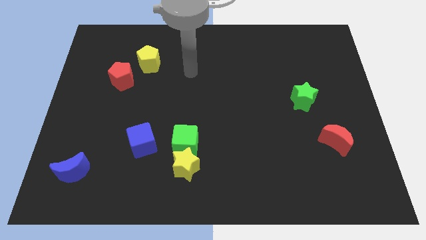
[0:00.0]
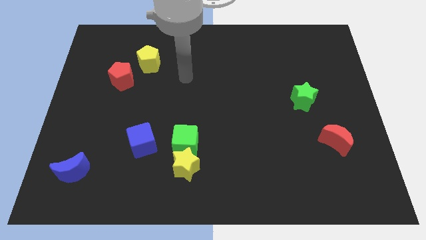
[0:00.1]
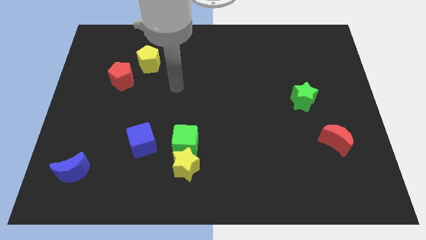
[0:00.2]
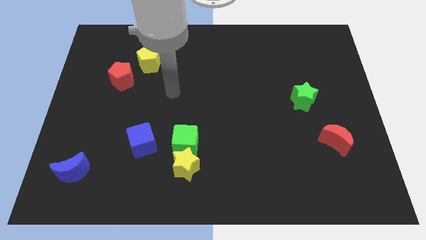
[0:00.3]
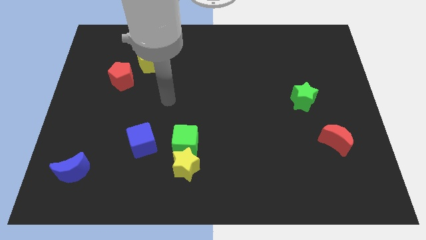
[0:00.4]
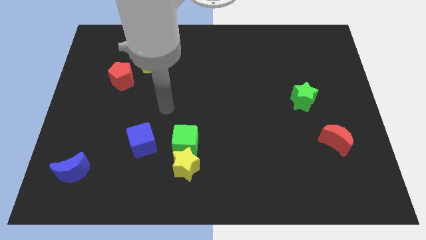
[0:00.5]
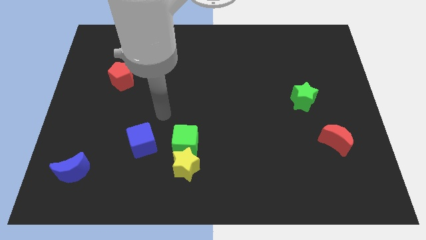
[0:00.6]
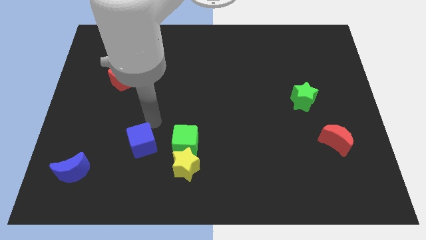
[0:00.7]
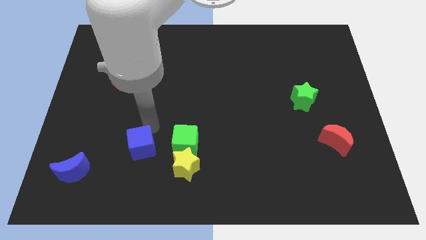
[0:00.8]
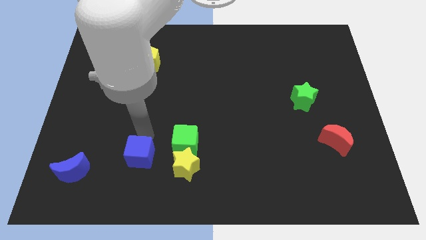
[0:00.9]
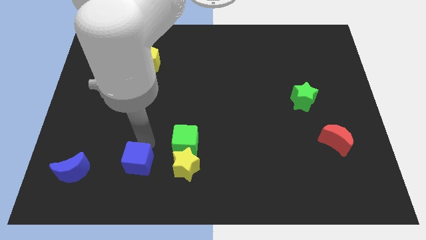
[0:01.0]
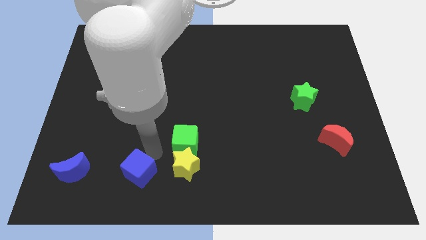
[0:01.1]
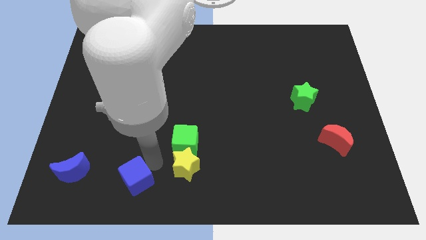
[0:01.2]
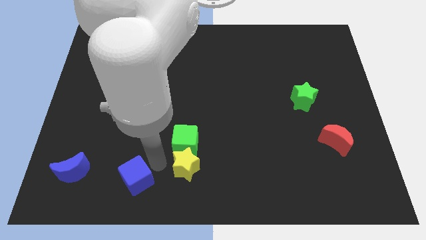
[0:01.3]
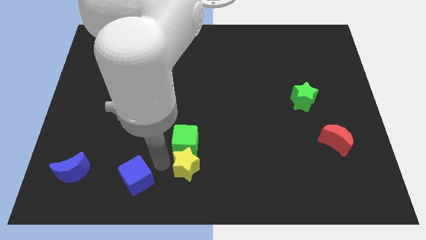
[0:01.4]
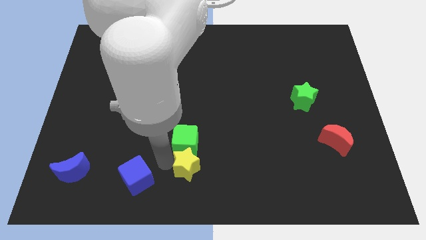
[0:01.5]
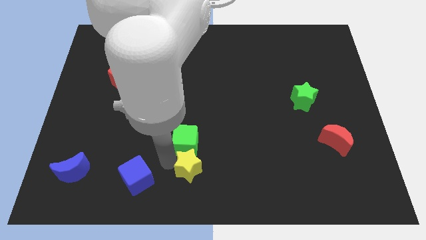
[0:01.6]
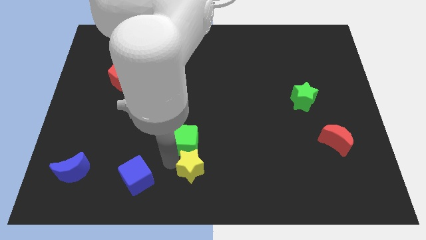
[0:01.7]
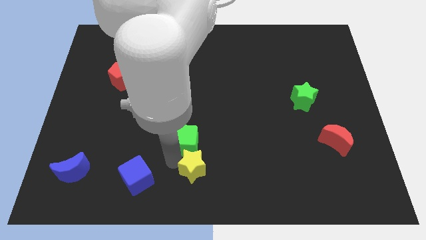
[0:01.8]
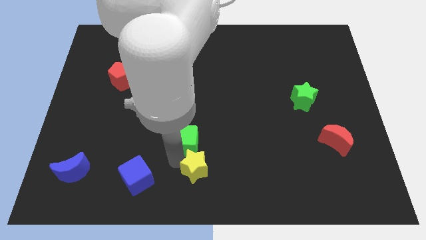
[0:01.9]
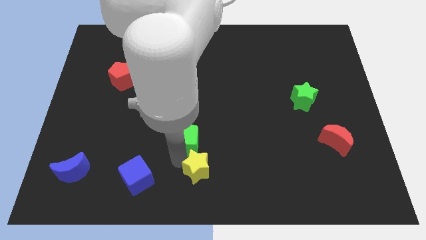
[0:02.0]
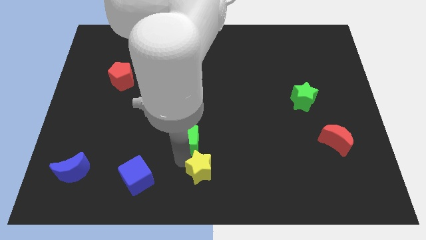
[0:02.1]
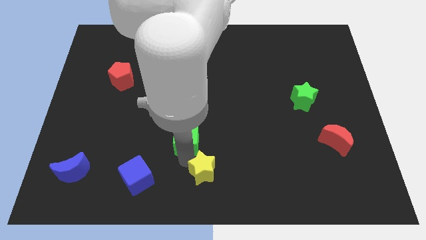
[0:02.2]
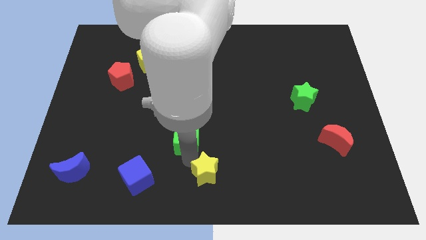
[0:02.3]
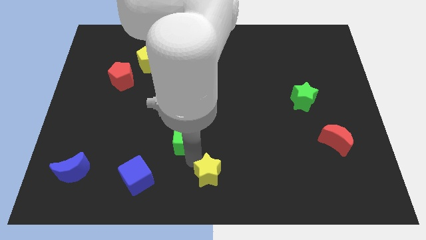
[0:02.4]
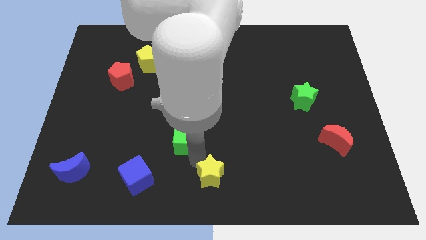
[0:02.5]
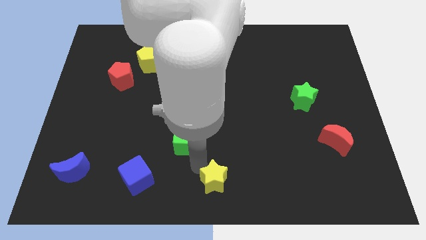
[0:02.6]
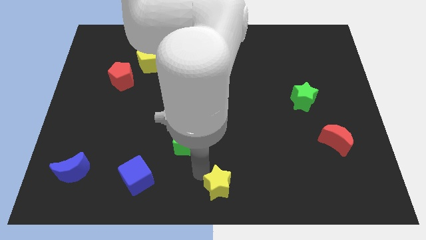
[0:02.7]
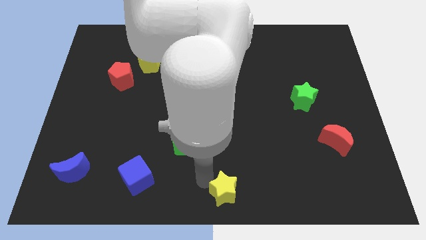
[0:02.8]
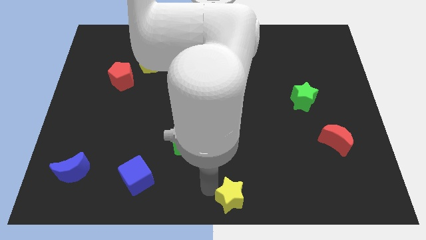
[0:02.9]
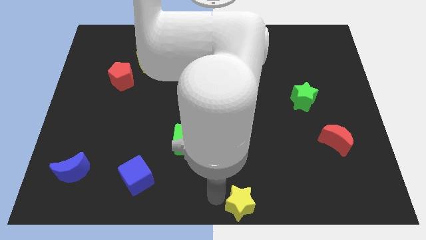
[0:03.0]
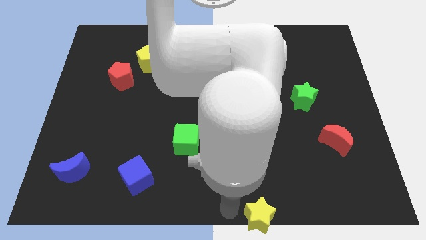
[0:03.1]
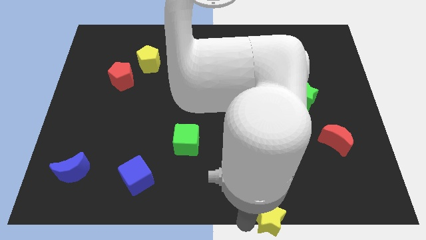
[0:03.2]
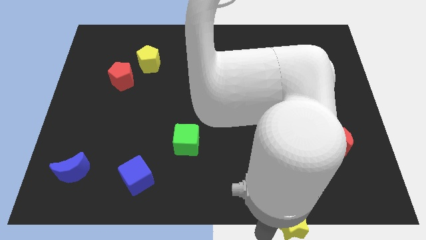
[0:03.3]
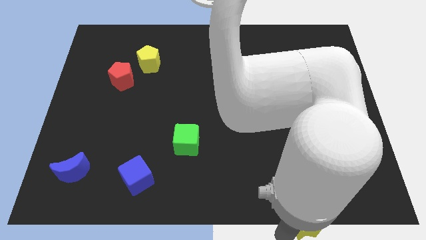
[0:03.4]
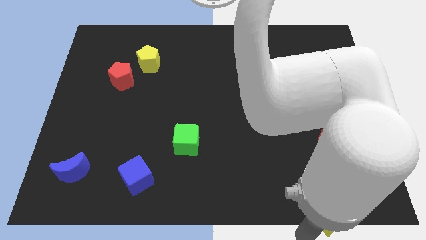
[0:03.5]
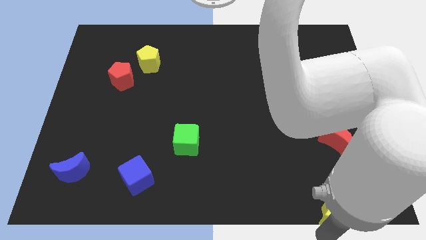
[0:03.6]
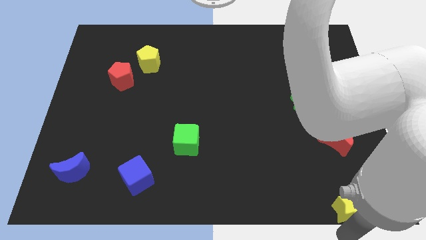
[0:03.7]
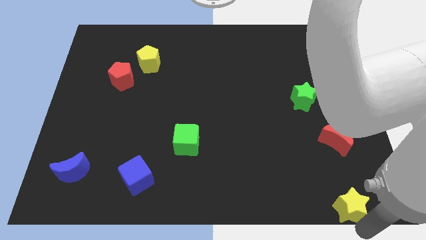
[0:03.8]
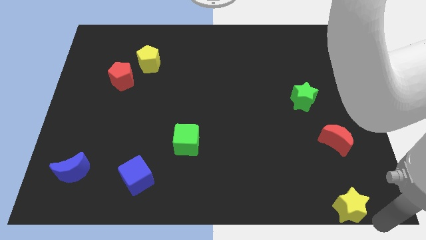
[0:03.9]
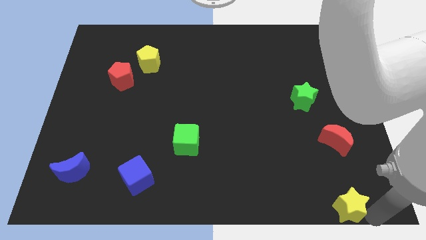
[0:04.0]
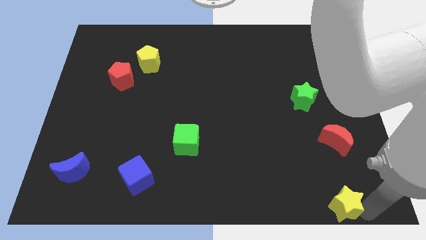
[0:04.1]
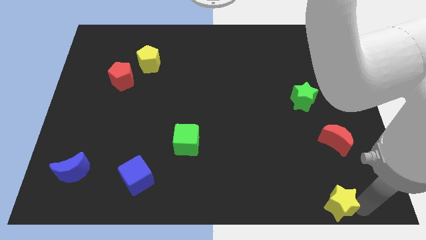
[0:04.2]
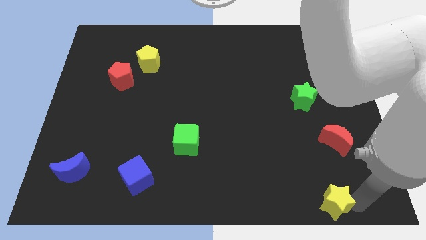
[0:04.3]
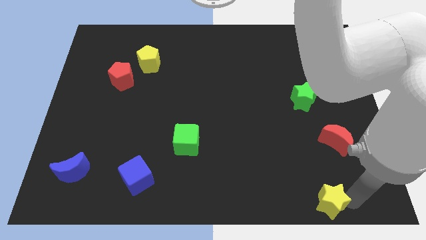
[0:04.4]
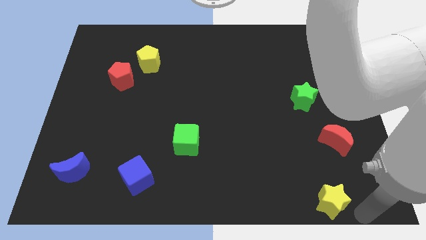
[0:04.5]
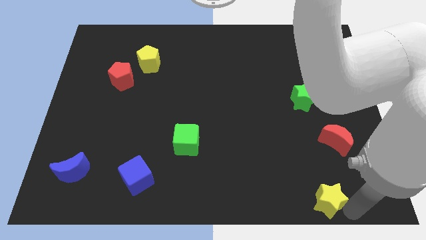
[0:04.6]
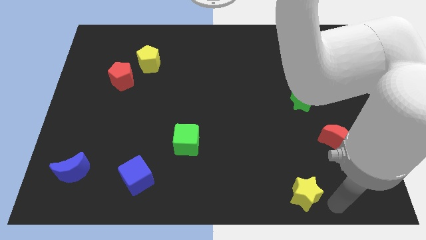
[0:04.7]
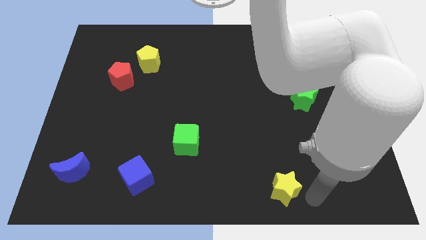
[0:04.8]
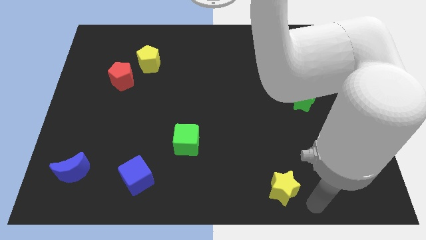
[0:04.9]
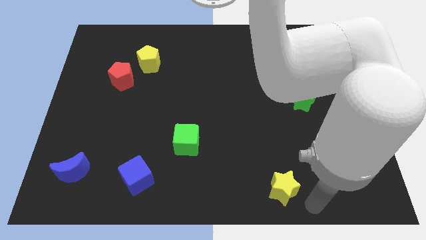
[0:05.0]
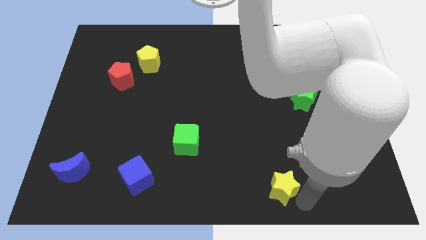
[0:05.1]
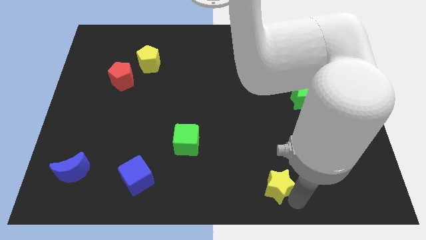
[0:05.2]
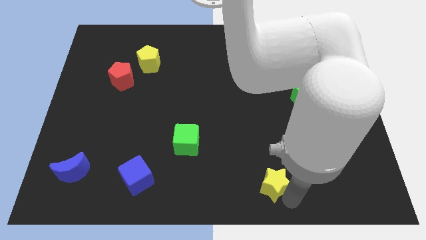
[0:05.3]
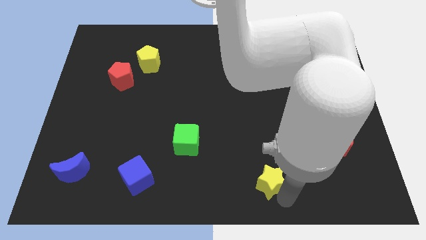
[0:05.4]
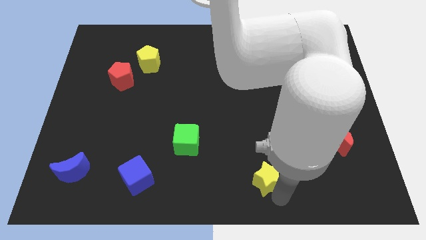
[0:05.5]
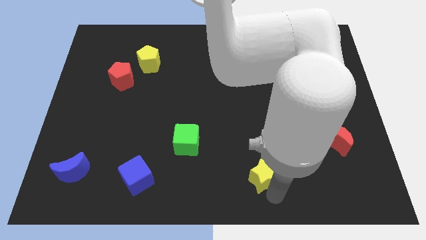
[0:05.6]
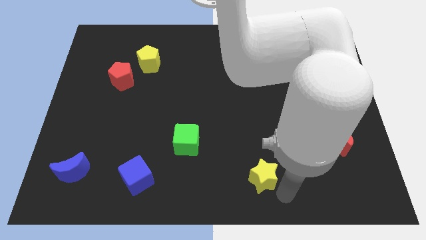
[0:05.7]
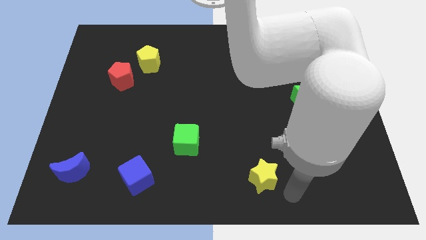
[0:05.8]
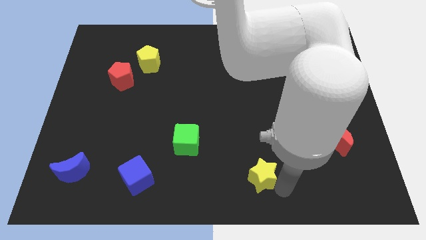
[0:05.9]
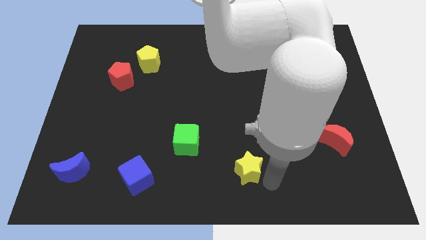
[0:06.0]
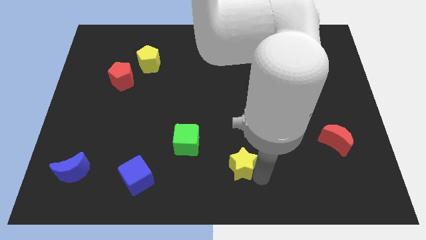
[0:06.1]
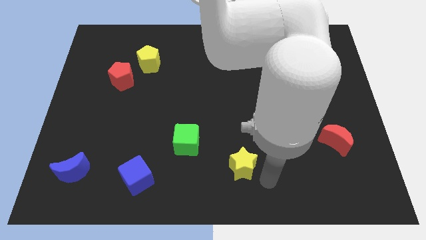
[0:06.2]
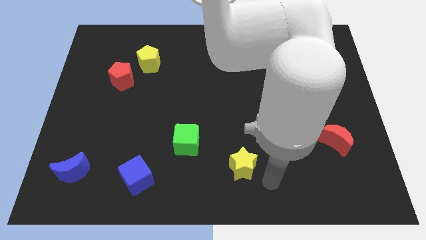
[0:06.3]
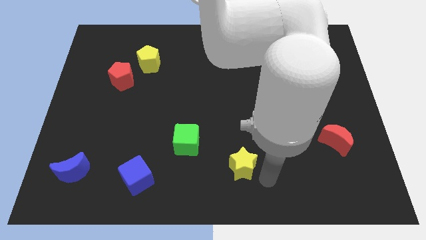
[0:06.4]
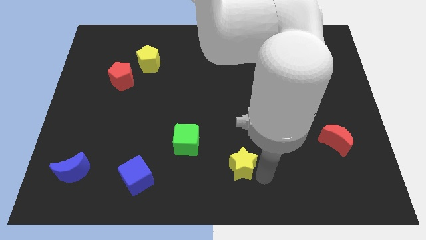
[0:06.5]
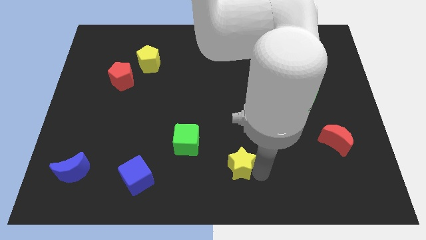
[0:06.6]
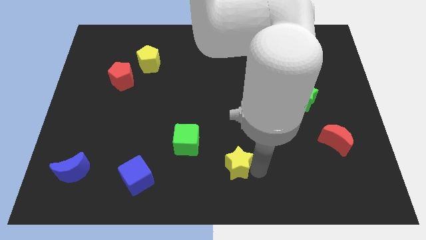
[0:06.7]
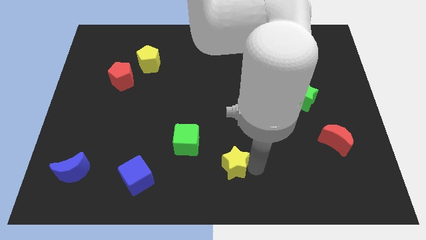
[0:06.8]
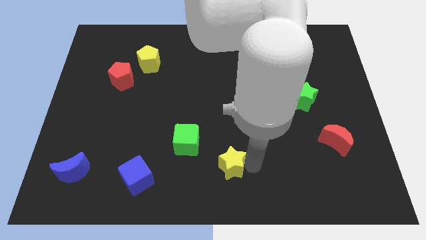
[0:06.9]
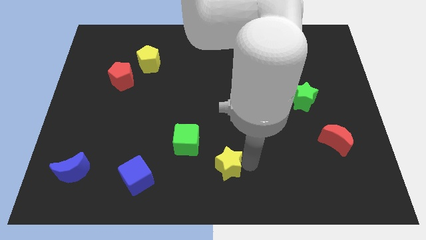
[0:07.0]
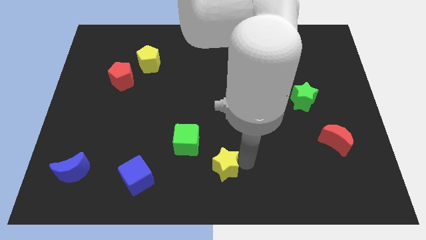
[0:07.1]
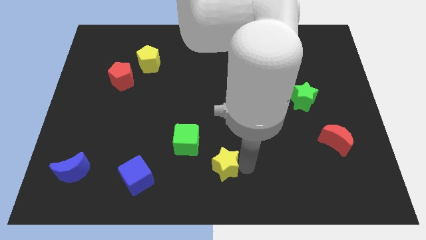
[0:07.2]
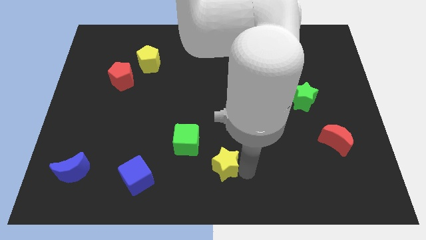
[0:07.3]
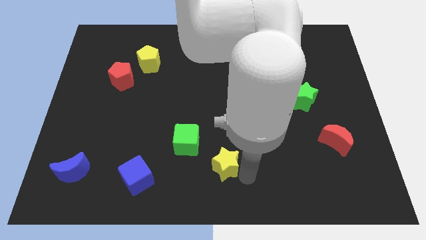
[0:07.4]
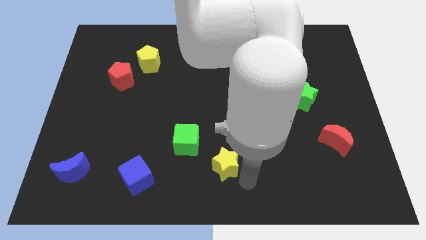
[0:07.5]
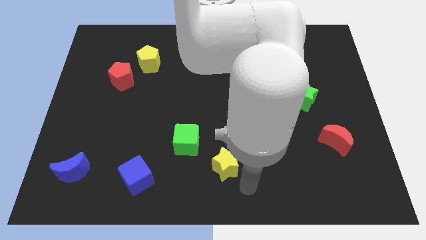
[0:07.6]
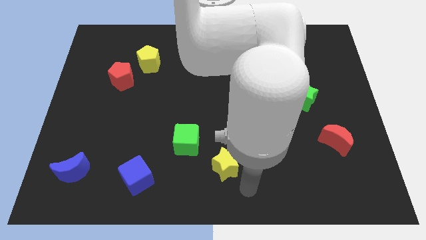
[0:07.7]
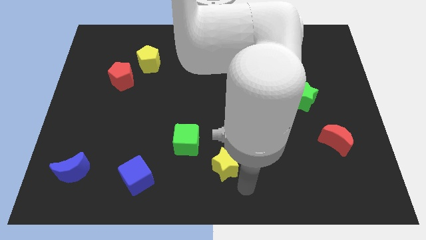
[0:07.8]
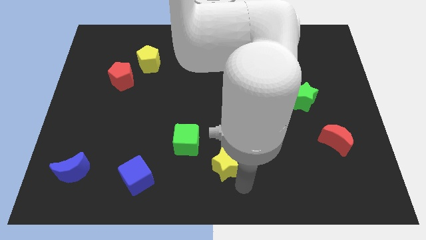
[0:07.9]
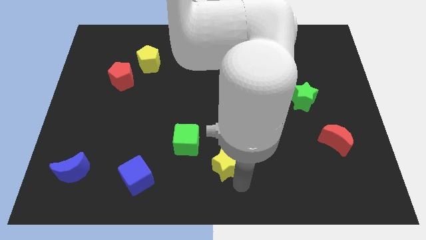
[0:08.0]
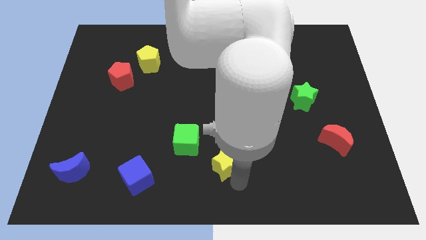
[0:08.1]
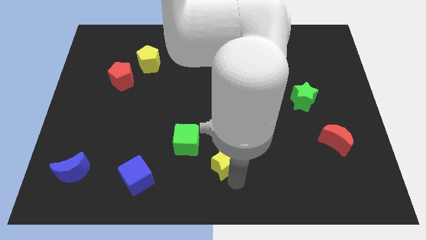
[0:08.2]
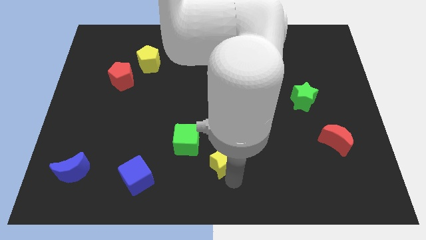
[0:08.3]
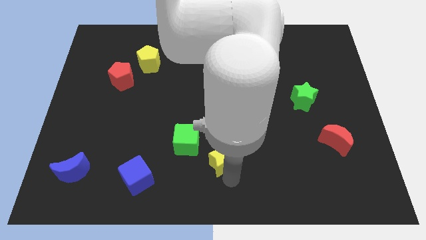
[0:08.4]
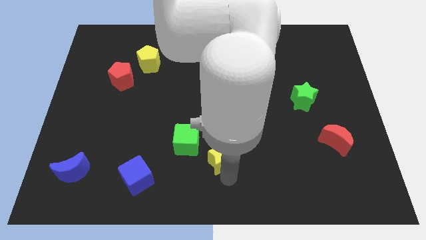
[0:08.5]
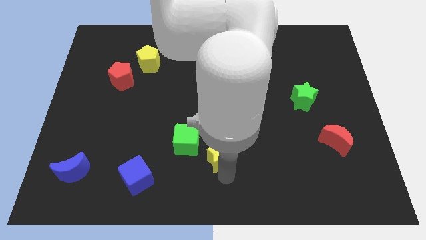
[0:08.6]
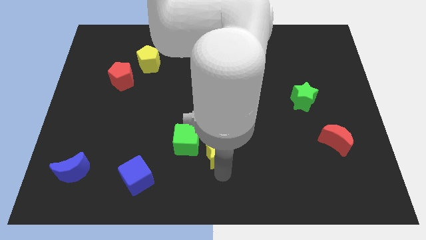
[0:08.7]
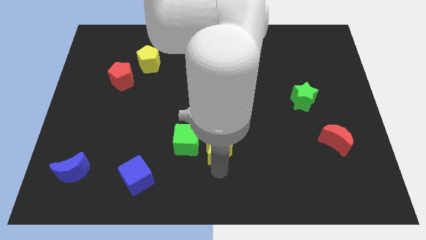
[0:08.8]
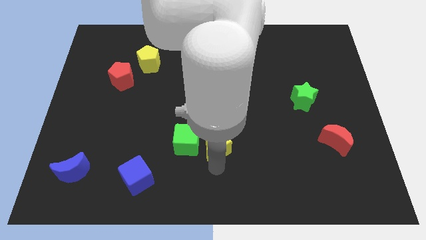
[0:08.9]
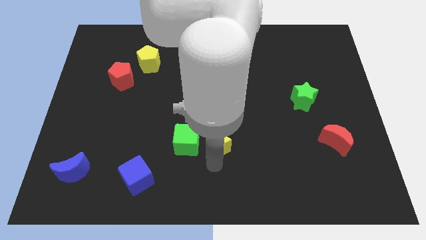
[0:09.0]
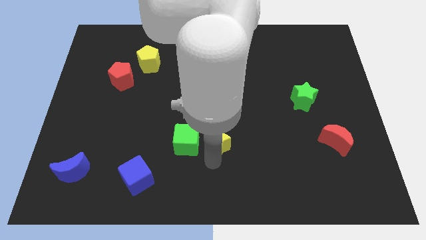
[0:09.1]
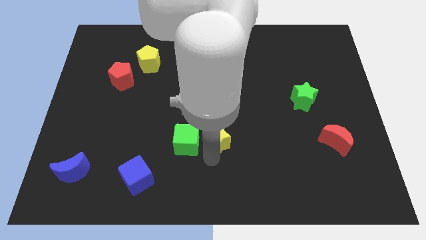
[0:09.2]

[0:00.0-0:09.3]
push the yellow star to the top right side of the green cube
